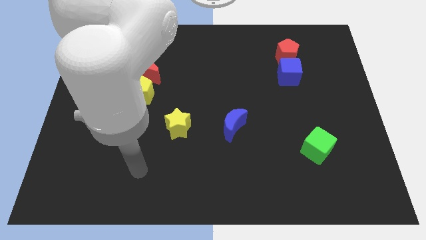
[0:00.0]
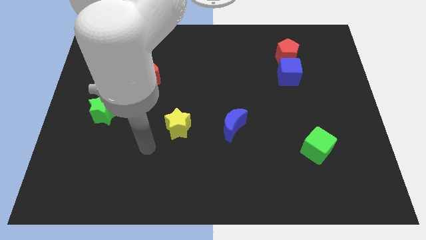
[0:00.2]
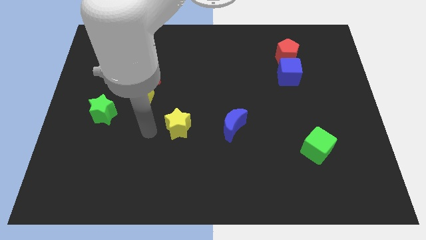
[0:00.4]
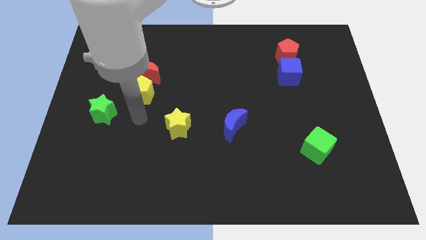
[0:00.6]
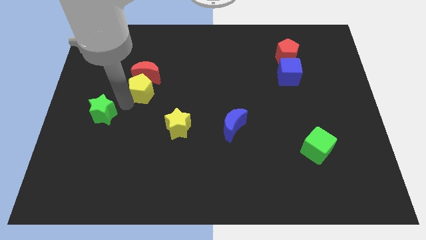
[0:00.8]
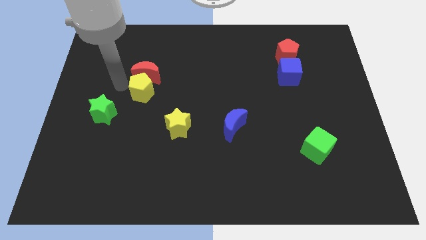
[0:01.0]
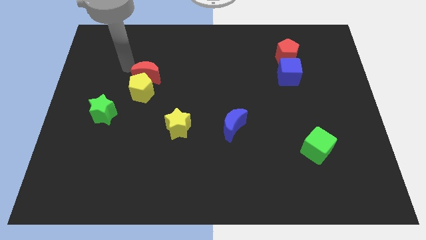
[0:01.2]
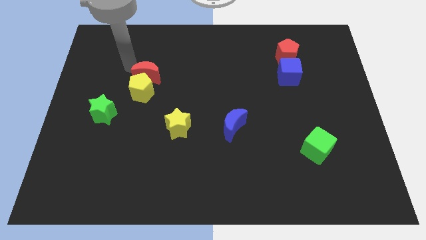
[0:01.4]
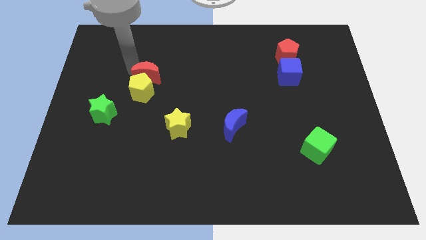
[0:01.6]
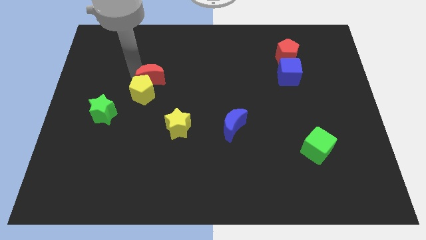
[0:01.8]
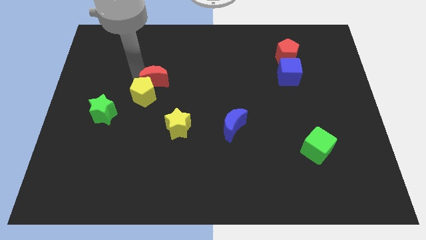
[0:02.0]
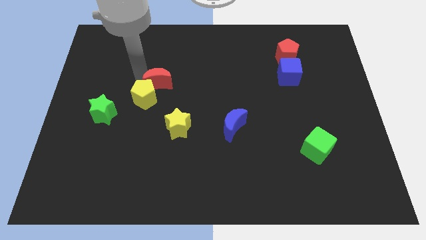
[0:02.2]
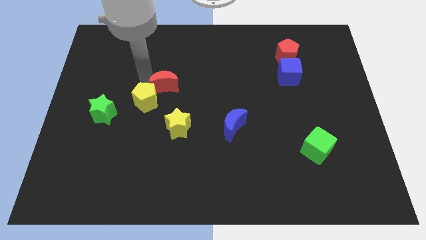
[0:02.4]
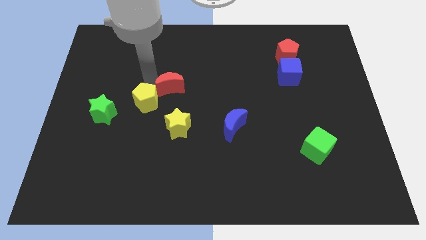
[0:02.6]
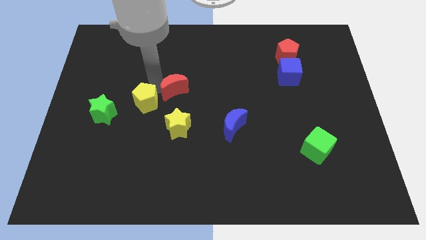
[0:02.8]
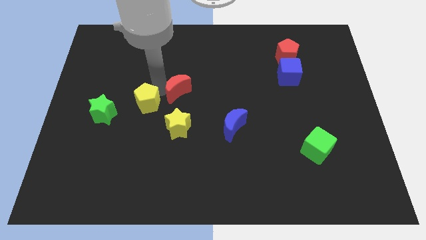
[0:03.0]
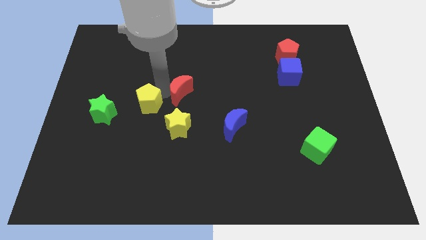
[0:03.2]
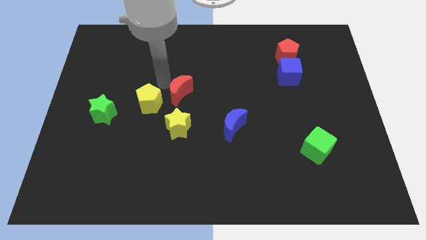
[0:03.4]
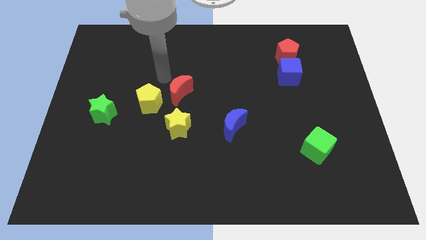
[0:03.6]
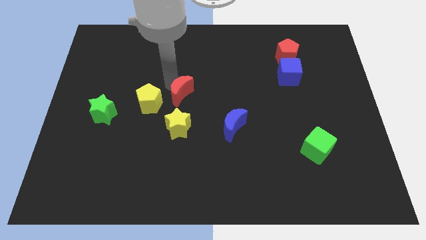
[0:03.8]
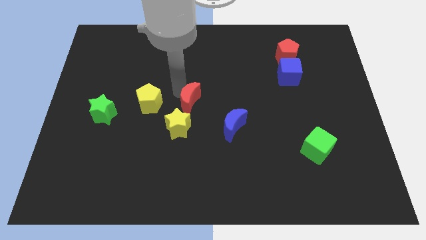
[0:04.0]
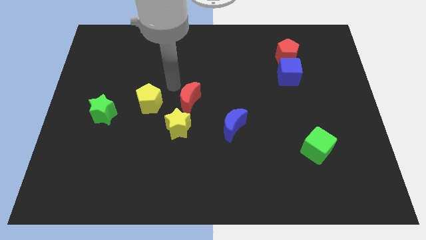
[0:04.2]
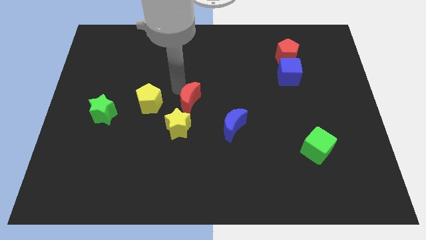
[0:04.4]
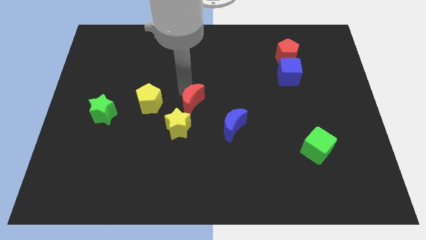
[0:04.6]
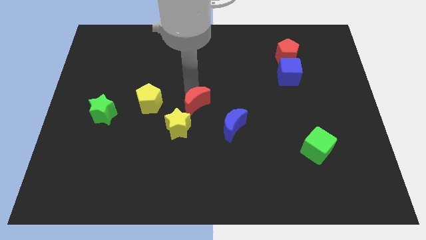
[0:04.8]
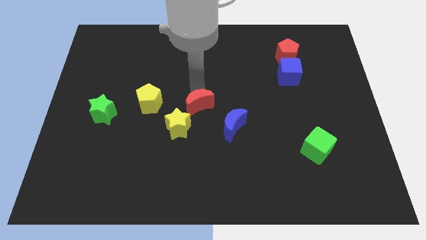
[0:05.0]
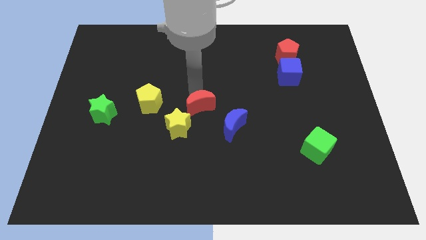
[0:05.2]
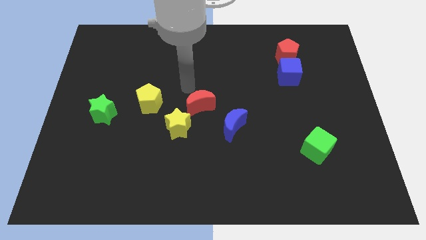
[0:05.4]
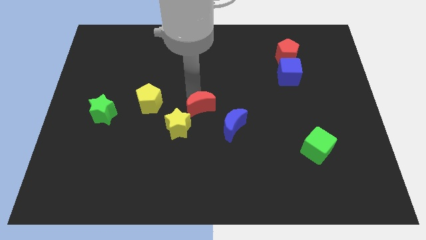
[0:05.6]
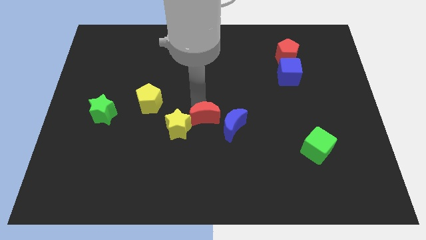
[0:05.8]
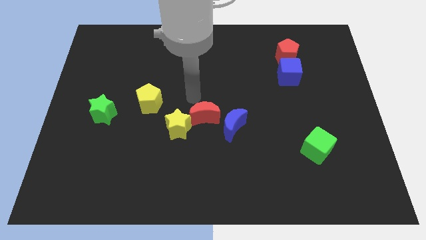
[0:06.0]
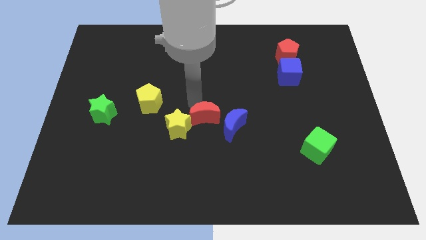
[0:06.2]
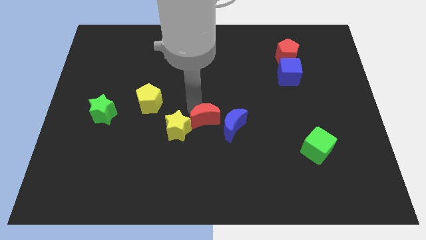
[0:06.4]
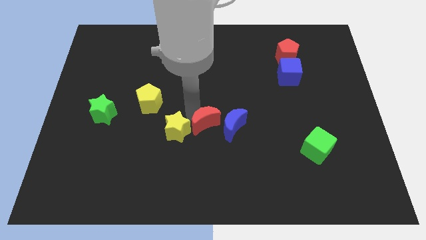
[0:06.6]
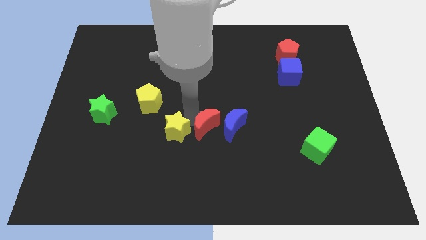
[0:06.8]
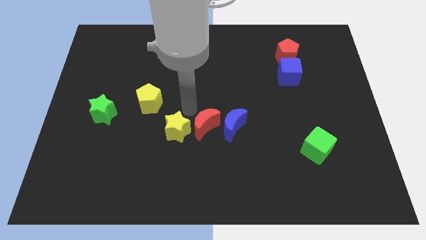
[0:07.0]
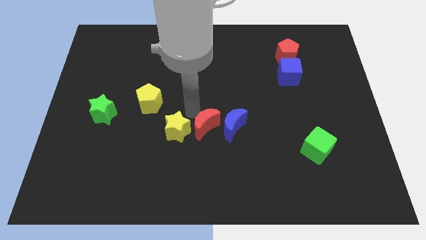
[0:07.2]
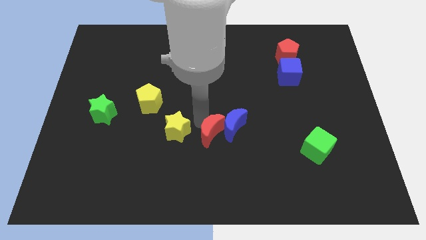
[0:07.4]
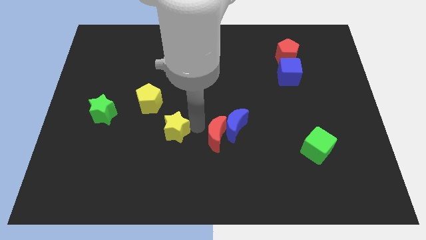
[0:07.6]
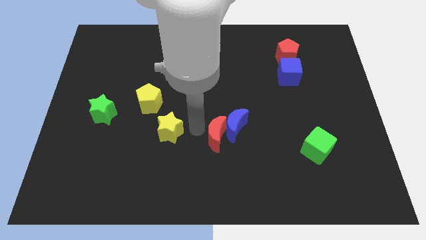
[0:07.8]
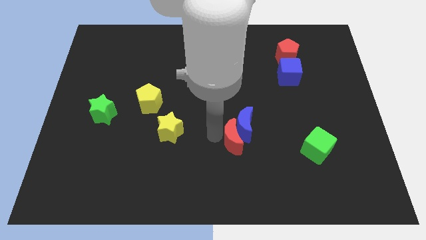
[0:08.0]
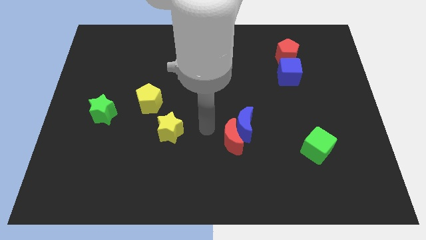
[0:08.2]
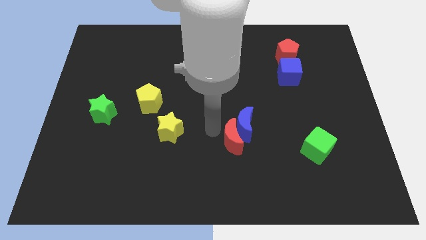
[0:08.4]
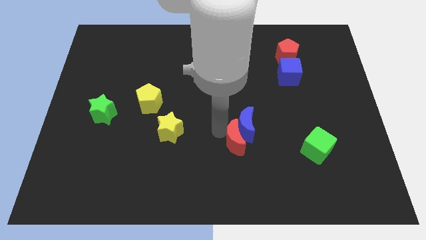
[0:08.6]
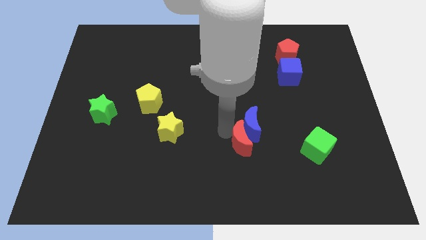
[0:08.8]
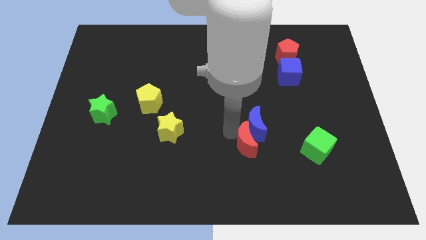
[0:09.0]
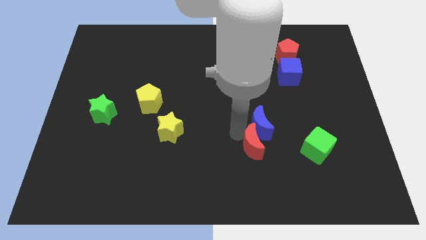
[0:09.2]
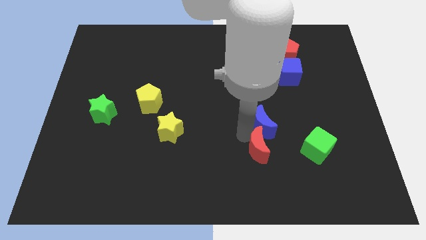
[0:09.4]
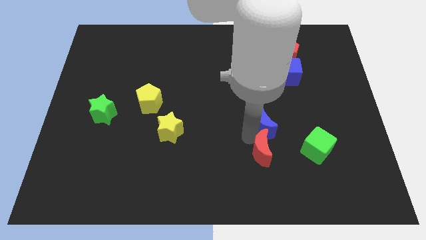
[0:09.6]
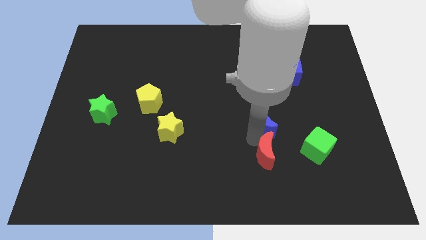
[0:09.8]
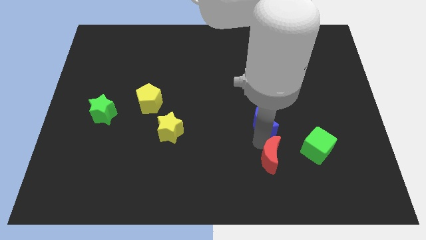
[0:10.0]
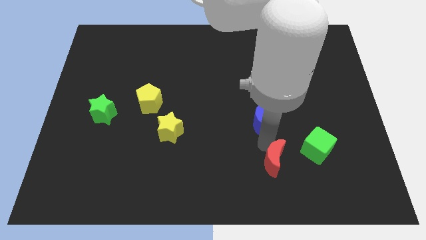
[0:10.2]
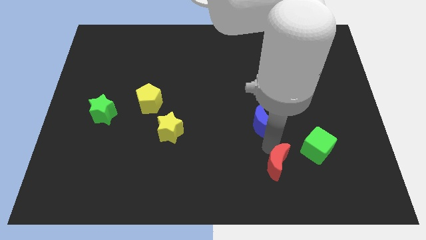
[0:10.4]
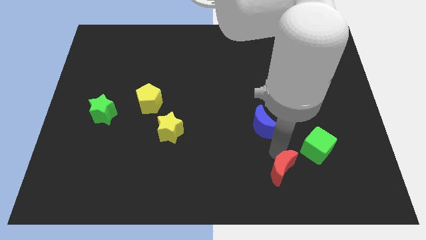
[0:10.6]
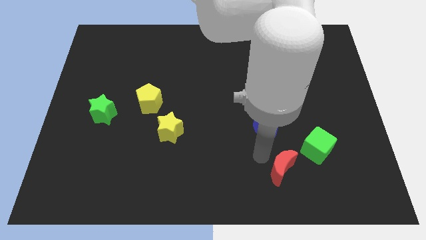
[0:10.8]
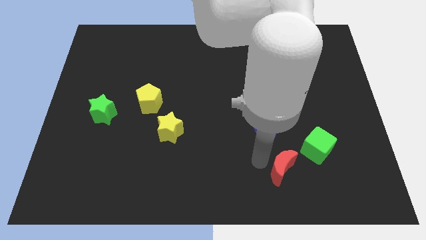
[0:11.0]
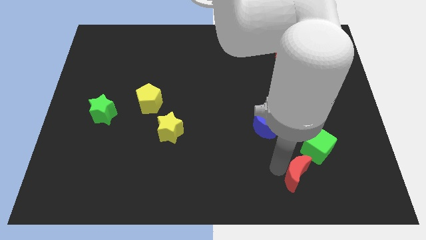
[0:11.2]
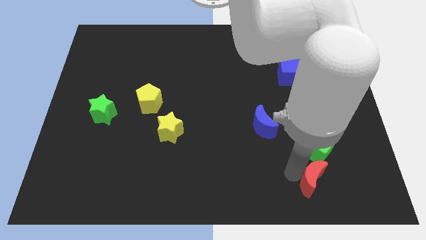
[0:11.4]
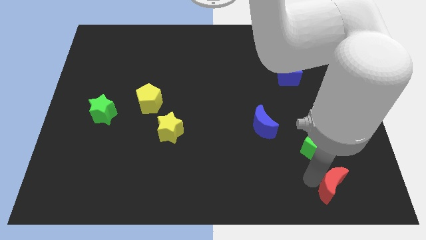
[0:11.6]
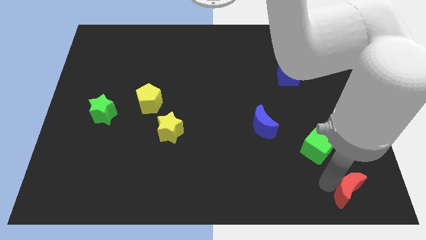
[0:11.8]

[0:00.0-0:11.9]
move the red moon to the bottom right corner
